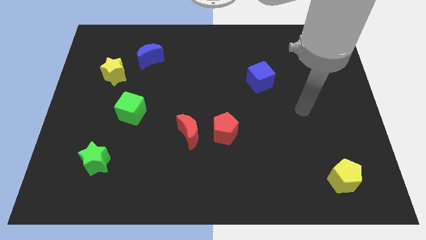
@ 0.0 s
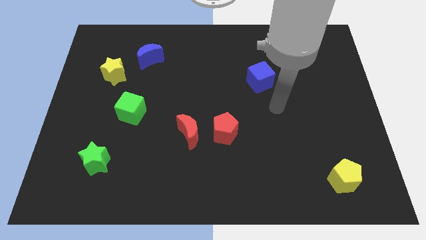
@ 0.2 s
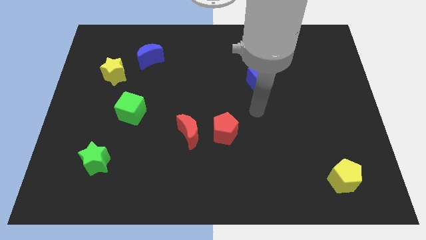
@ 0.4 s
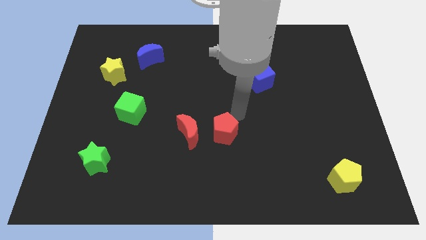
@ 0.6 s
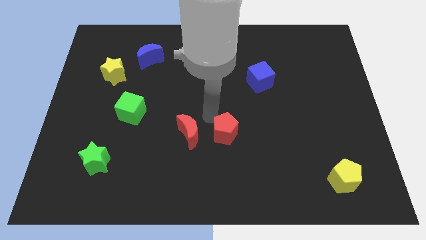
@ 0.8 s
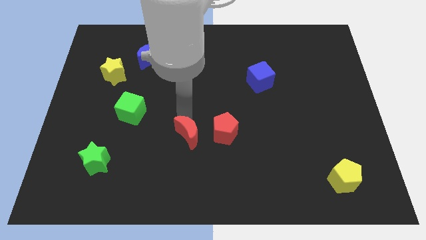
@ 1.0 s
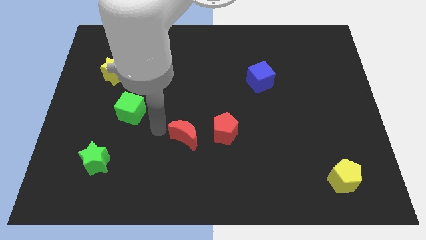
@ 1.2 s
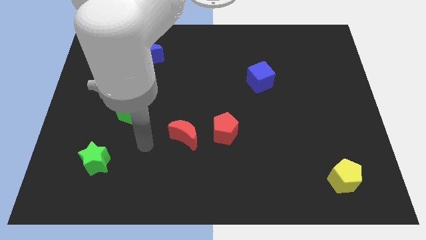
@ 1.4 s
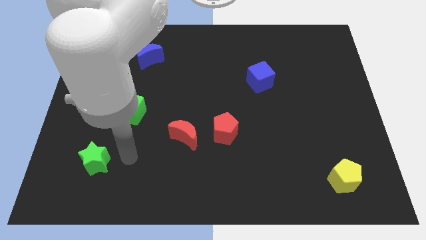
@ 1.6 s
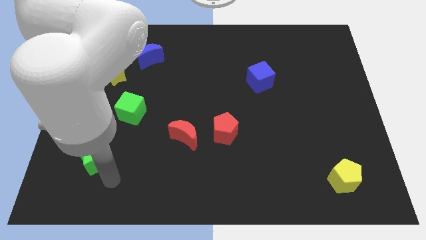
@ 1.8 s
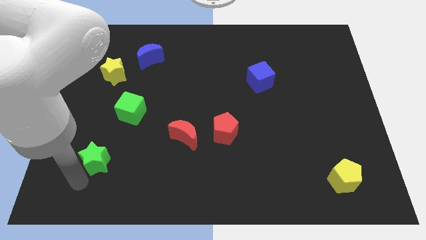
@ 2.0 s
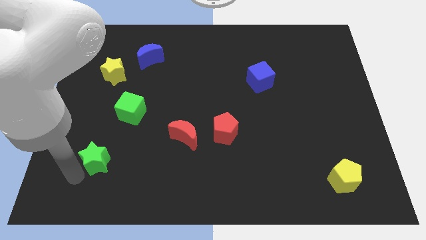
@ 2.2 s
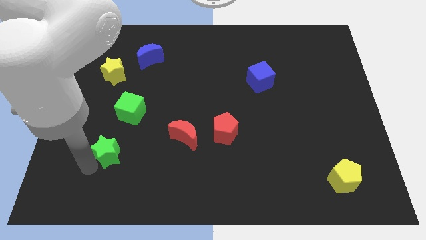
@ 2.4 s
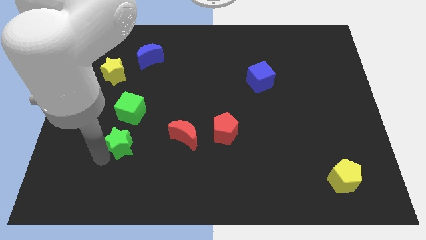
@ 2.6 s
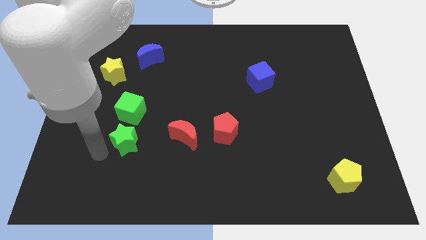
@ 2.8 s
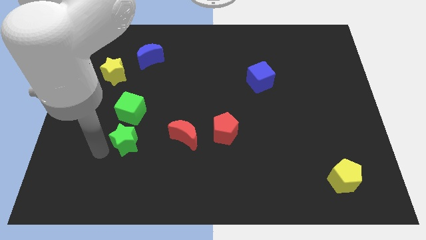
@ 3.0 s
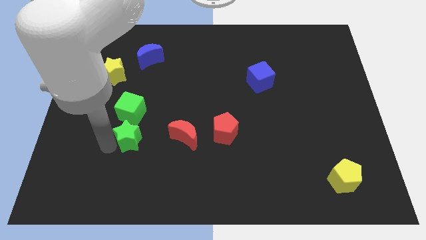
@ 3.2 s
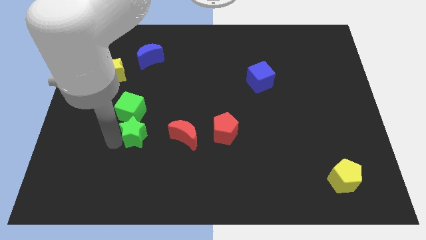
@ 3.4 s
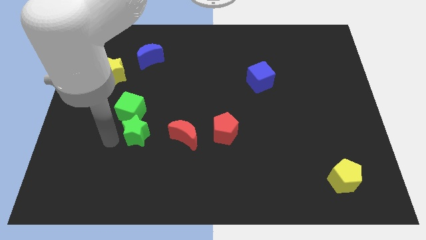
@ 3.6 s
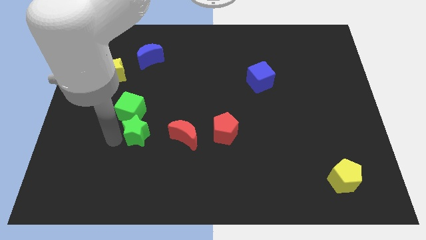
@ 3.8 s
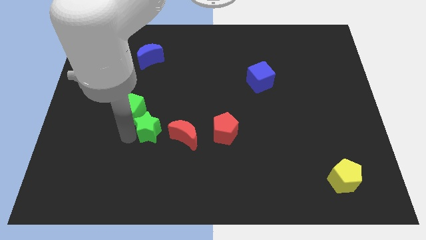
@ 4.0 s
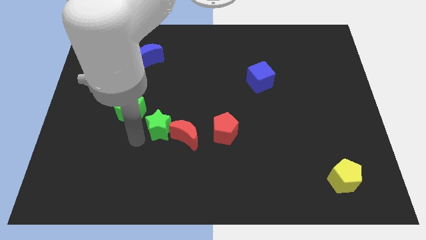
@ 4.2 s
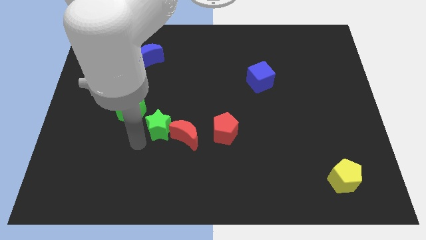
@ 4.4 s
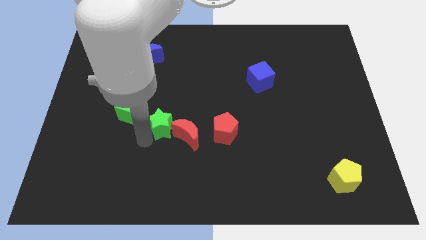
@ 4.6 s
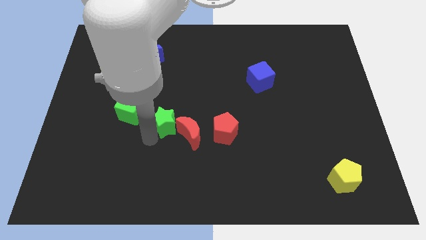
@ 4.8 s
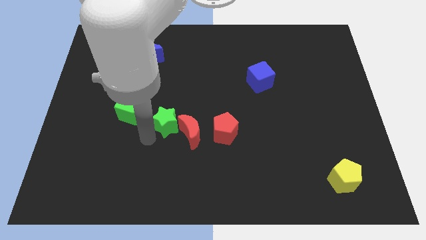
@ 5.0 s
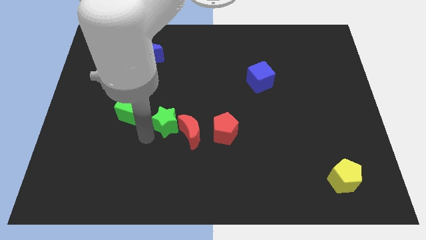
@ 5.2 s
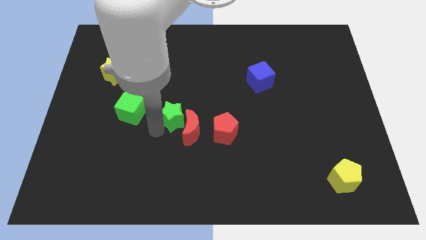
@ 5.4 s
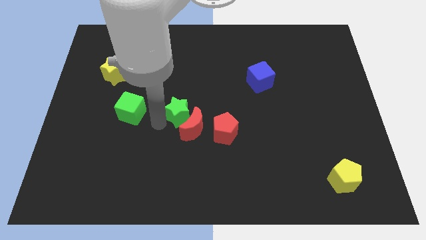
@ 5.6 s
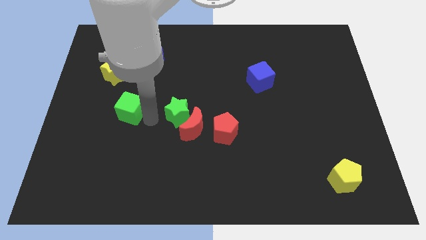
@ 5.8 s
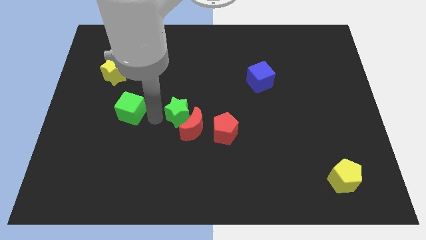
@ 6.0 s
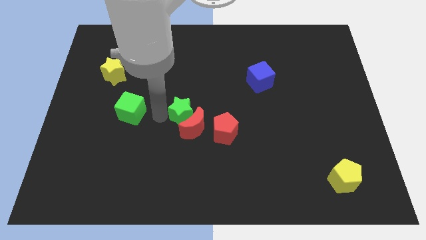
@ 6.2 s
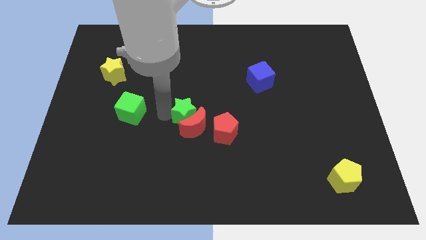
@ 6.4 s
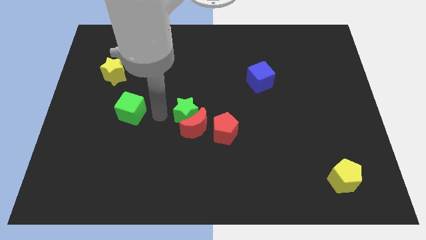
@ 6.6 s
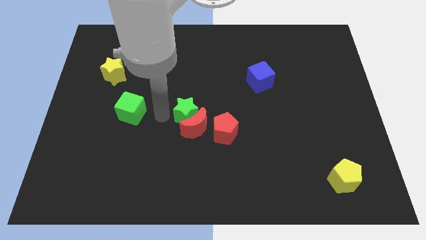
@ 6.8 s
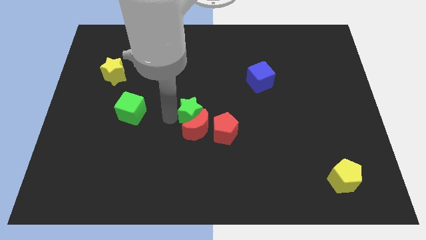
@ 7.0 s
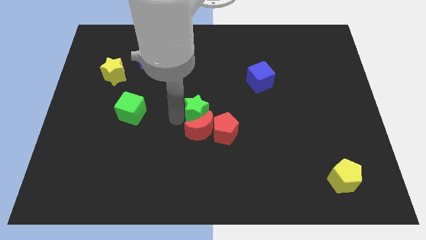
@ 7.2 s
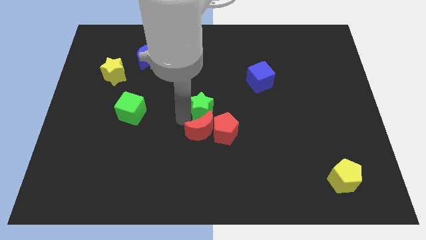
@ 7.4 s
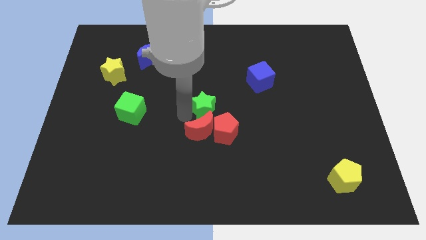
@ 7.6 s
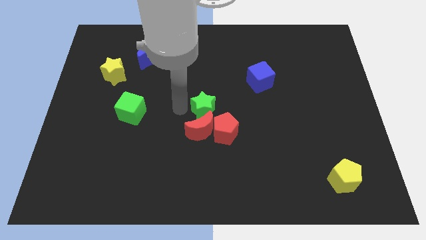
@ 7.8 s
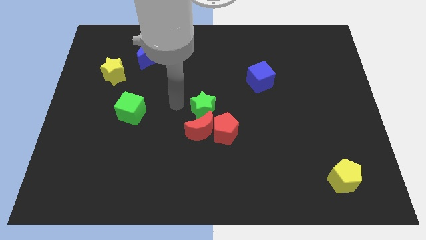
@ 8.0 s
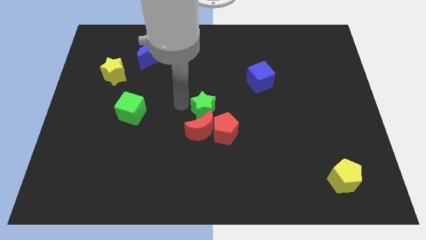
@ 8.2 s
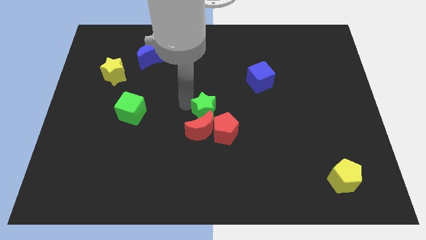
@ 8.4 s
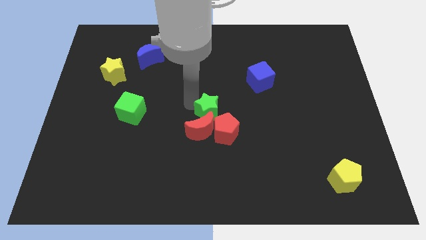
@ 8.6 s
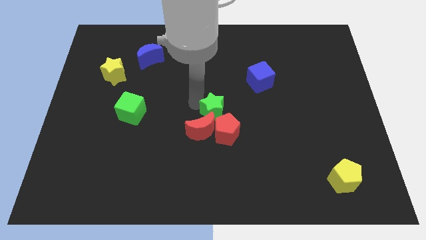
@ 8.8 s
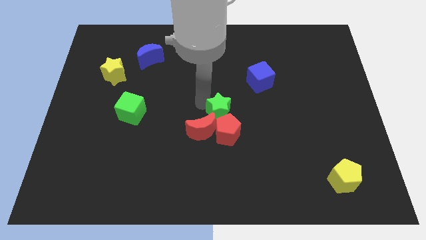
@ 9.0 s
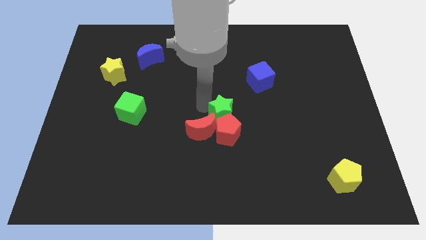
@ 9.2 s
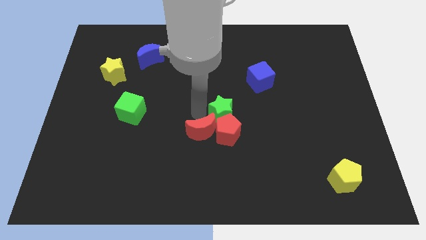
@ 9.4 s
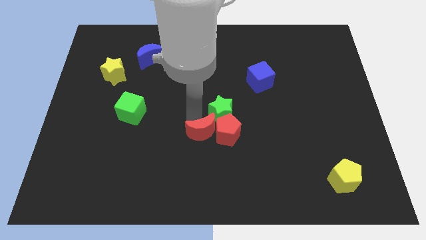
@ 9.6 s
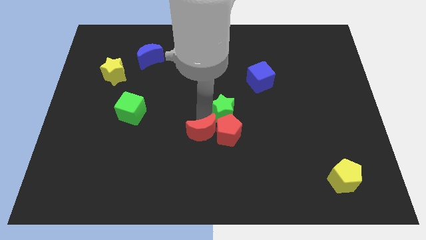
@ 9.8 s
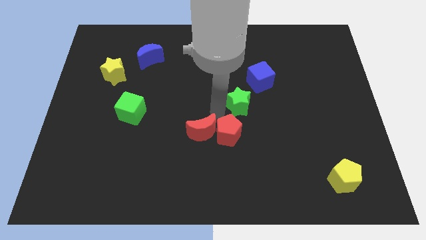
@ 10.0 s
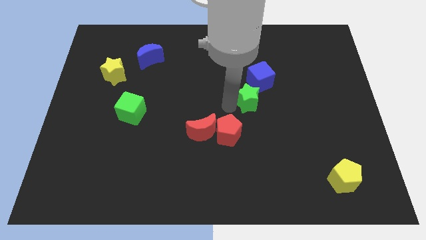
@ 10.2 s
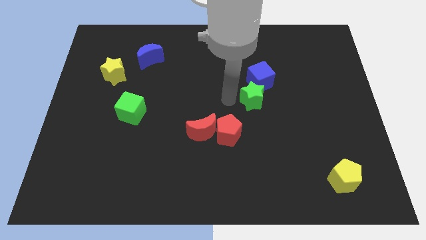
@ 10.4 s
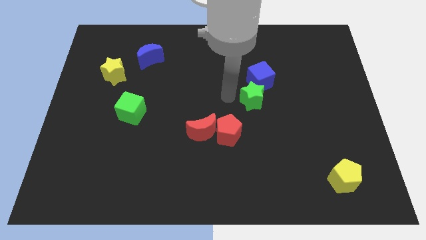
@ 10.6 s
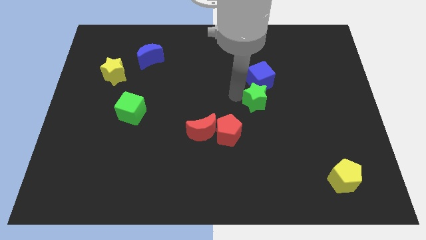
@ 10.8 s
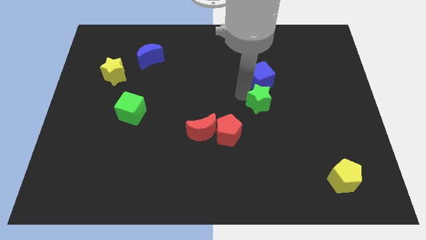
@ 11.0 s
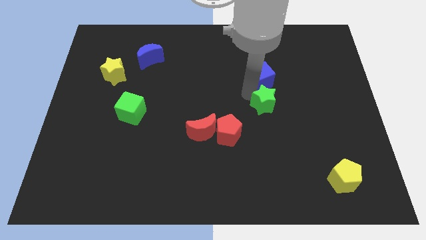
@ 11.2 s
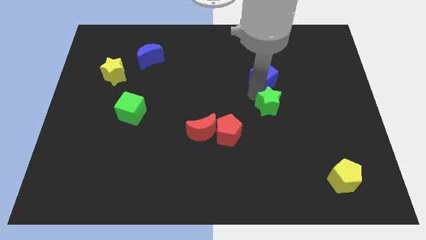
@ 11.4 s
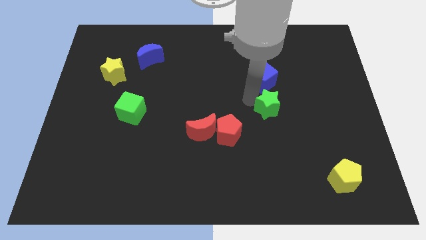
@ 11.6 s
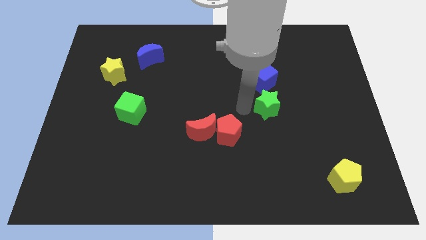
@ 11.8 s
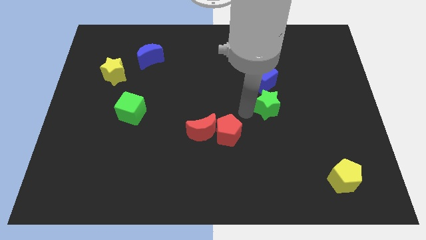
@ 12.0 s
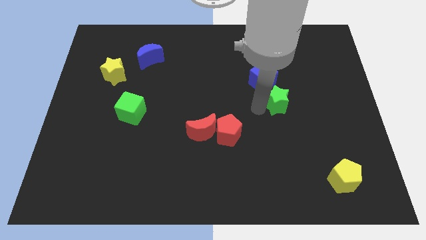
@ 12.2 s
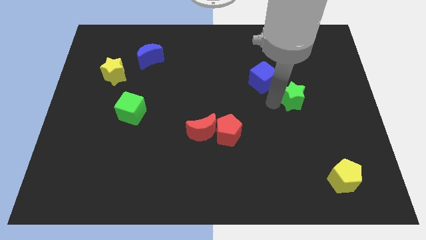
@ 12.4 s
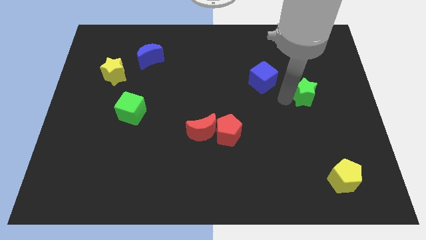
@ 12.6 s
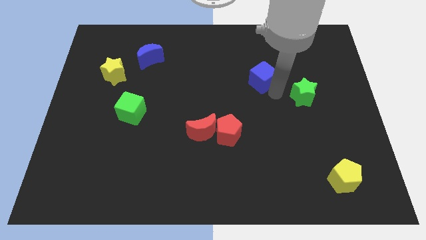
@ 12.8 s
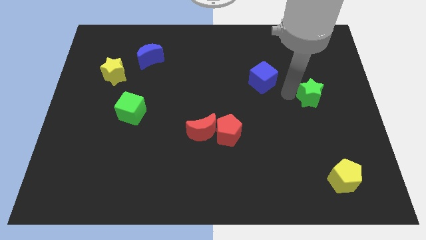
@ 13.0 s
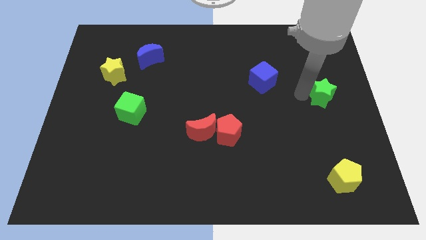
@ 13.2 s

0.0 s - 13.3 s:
push the green star to the right side of the board
